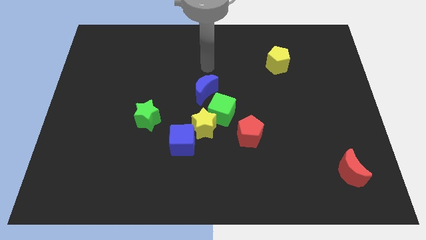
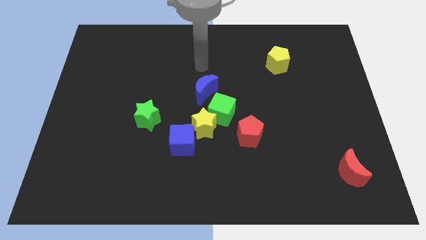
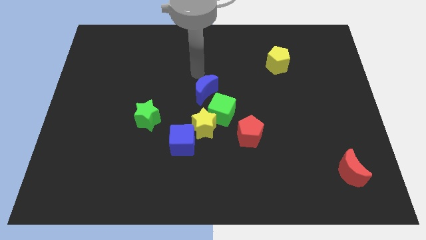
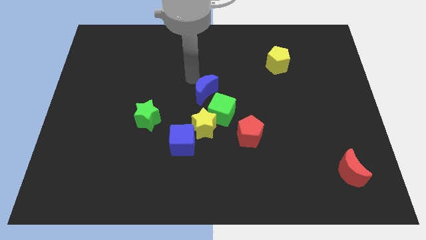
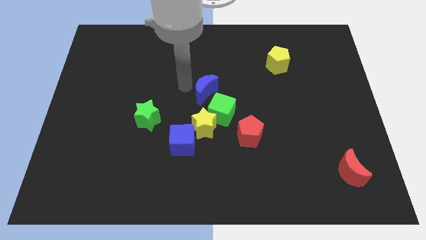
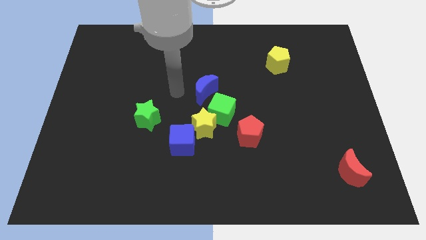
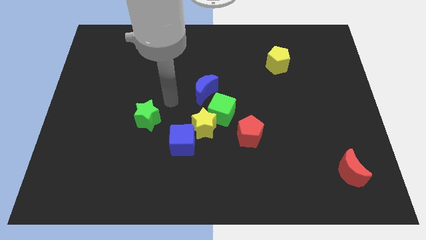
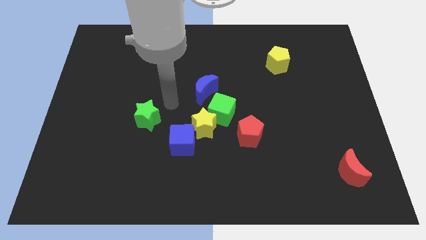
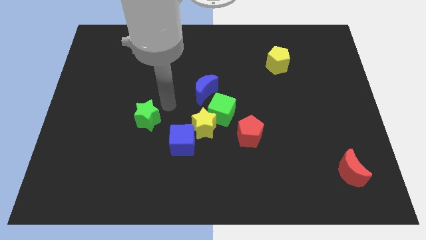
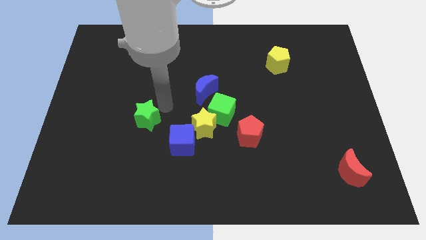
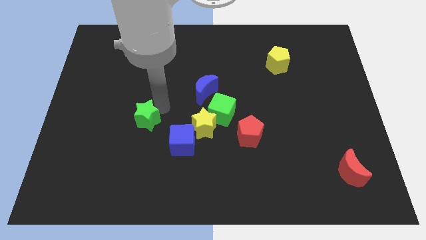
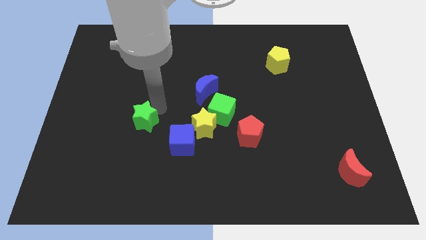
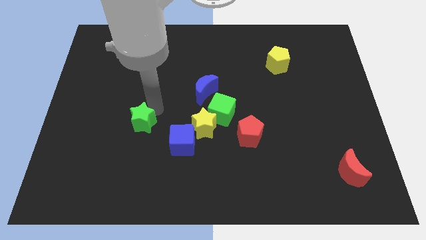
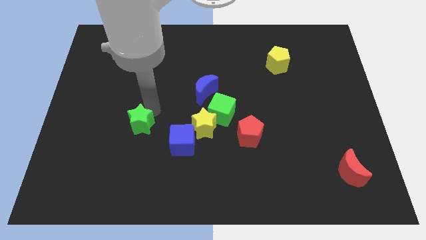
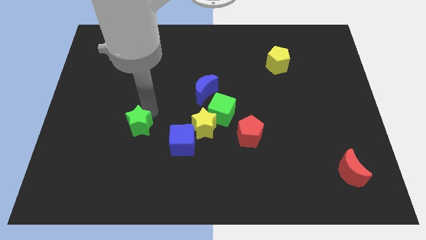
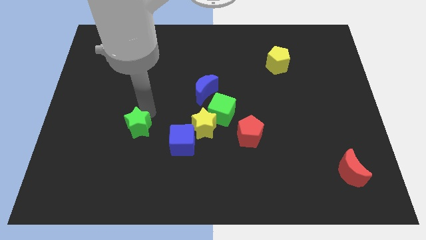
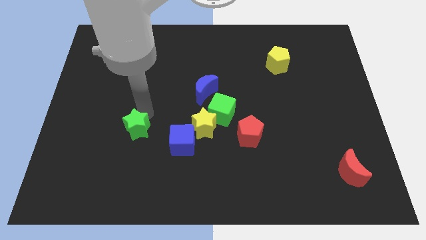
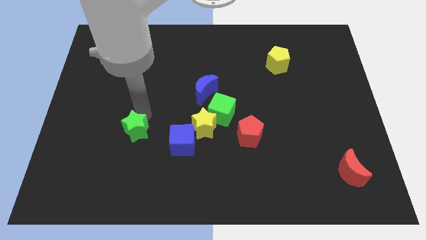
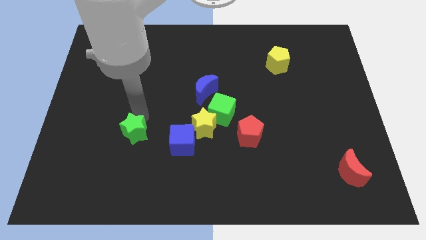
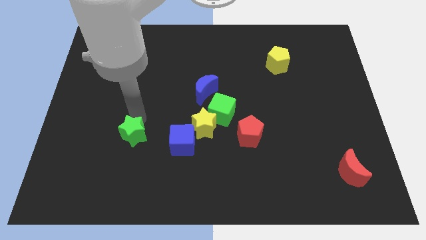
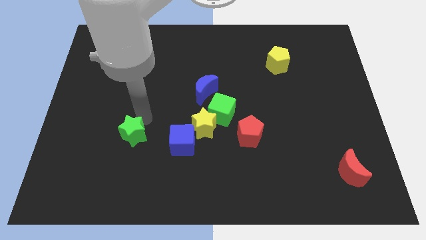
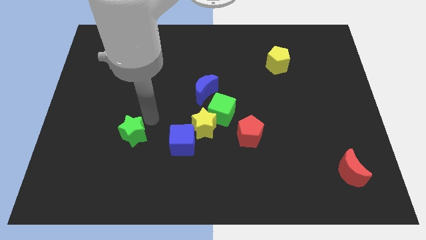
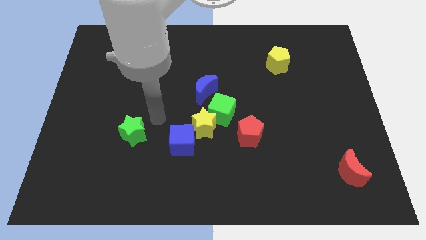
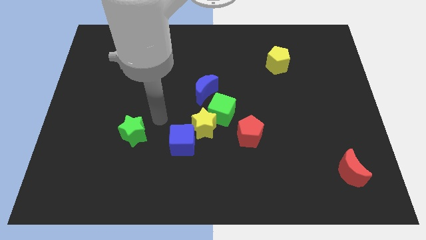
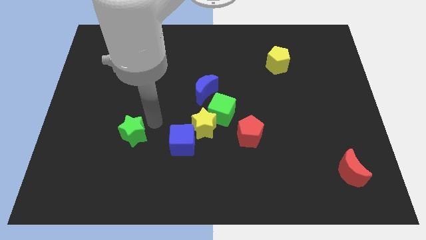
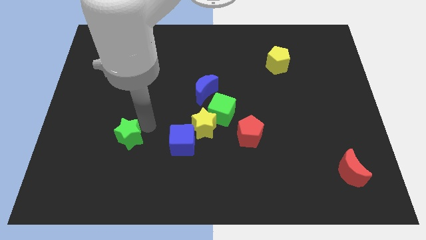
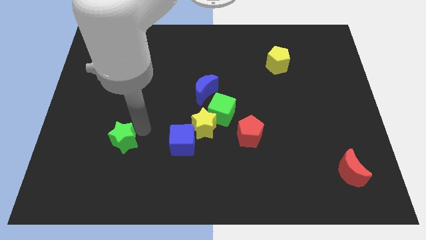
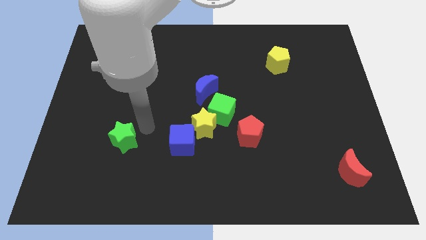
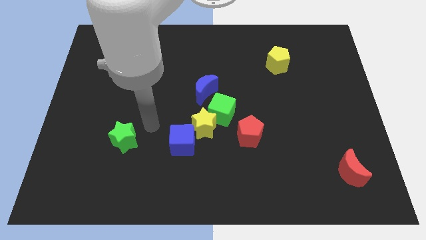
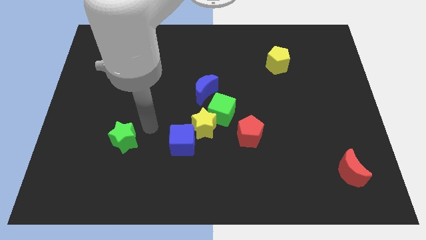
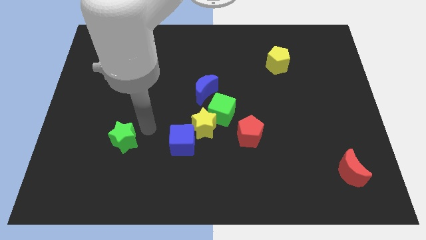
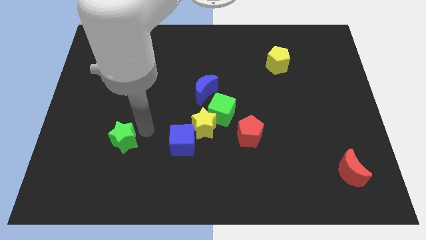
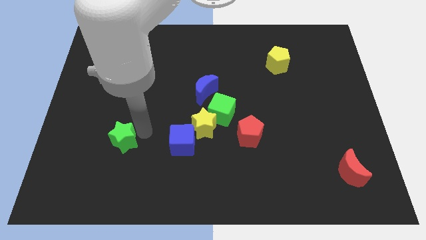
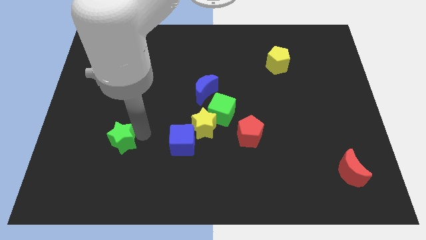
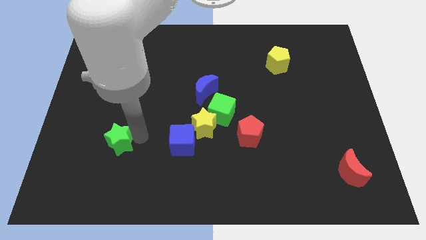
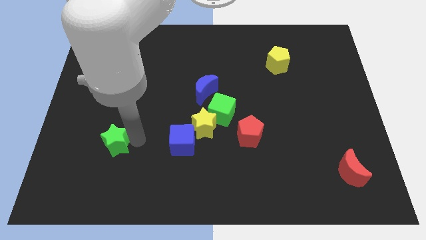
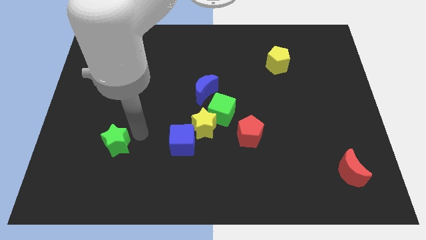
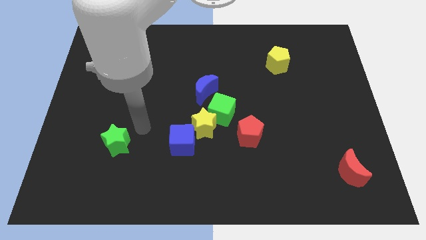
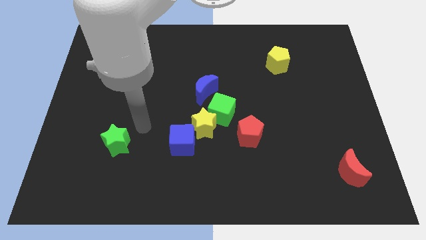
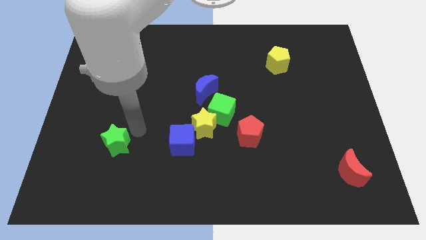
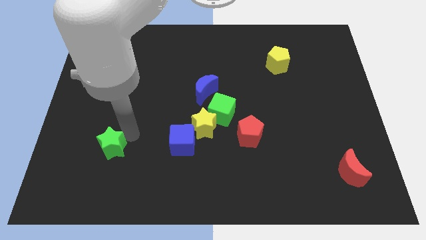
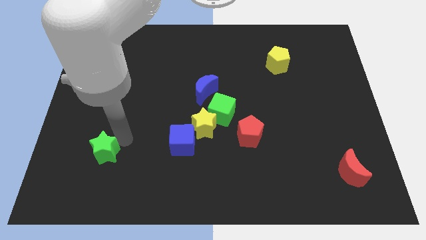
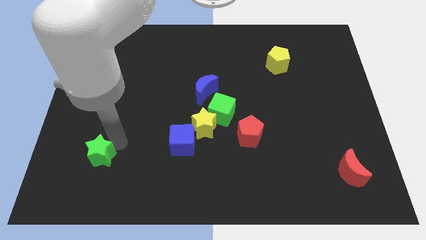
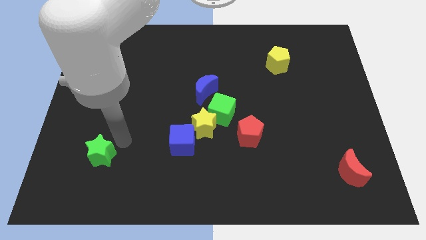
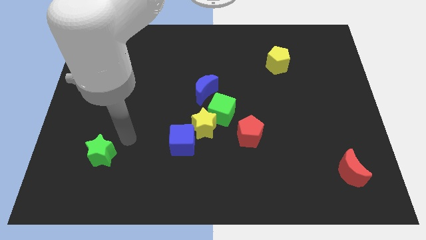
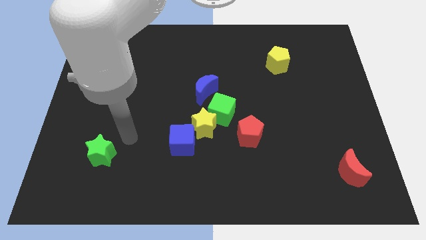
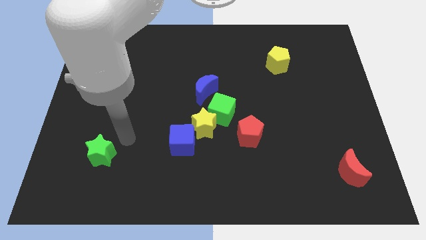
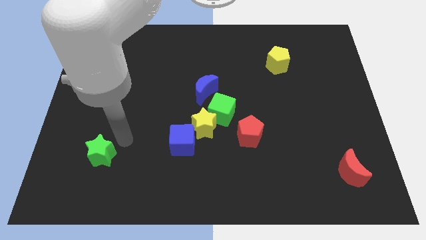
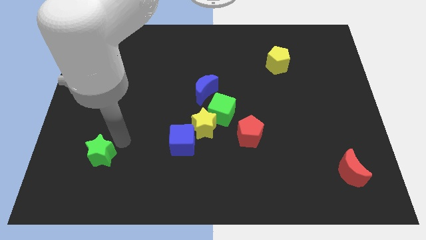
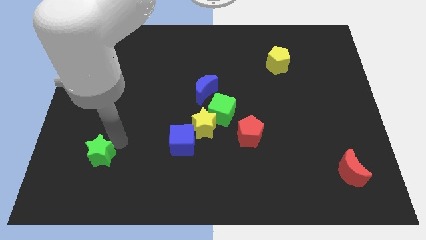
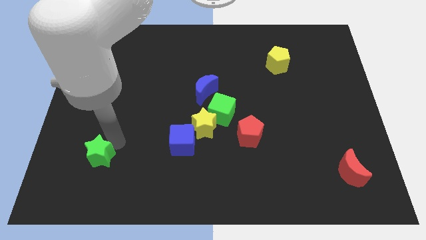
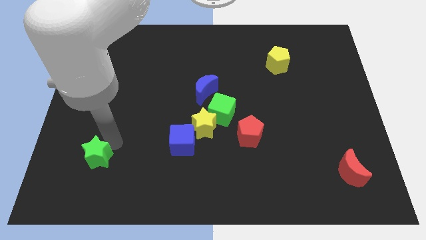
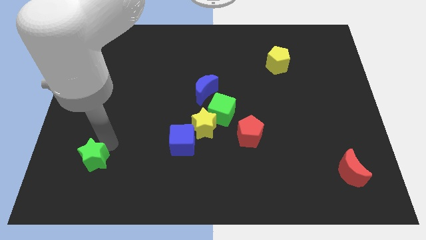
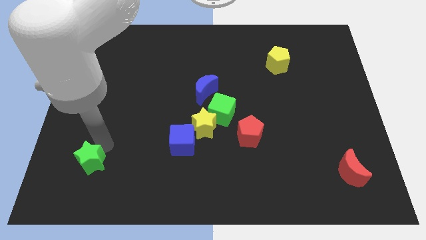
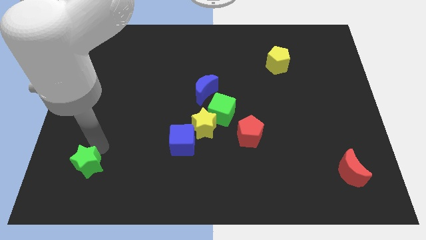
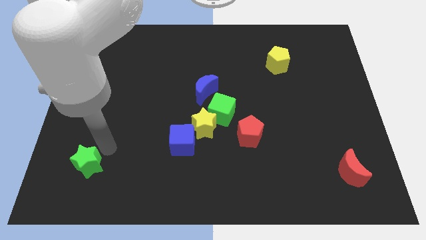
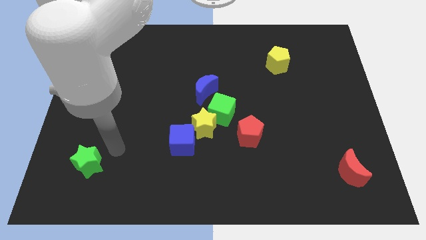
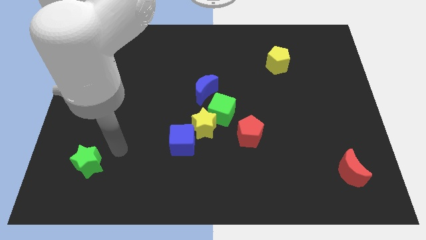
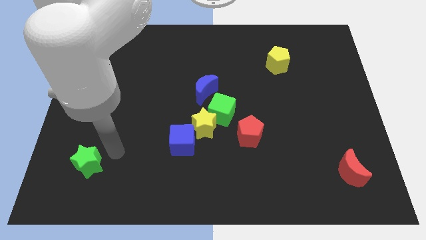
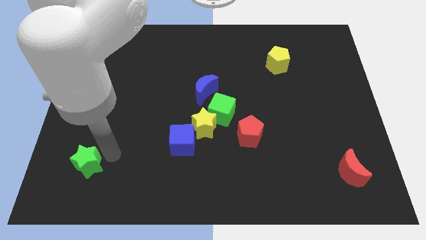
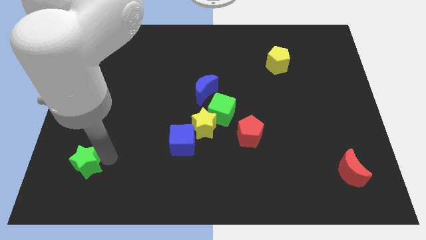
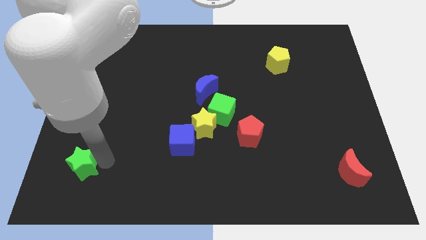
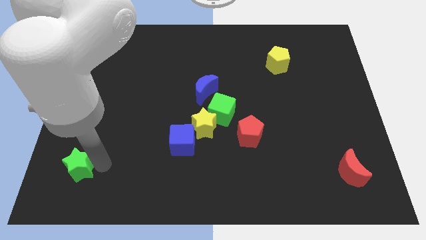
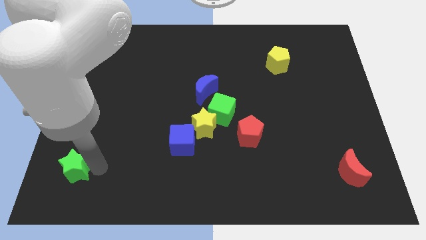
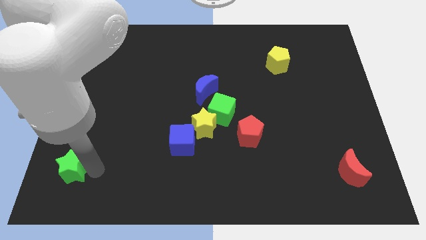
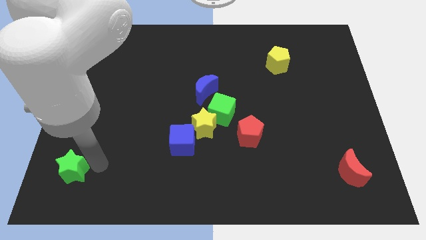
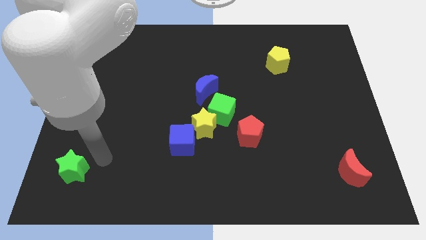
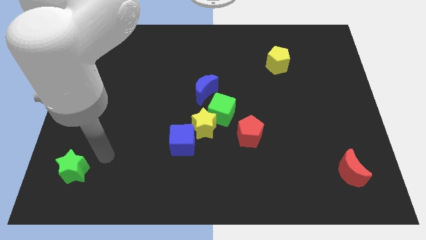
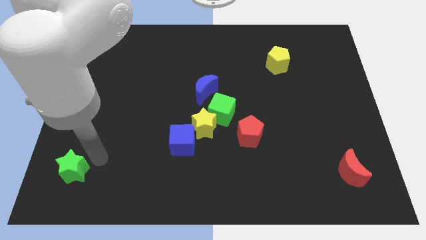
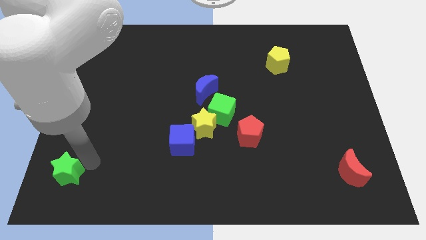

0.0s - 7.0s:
push the green star to the bottom left of the board

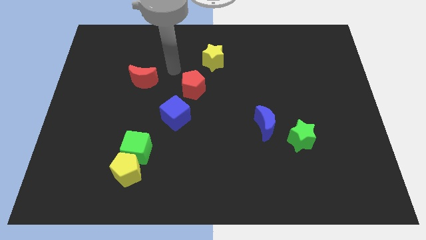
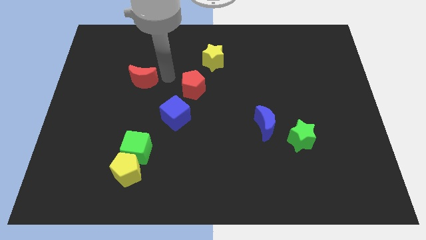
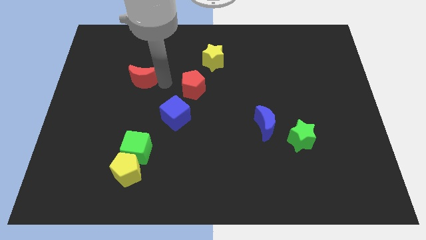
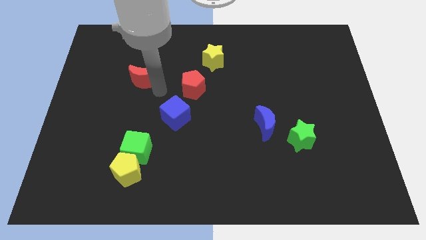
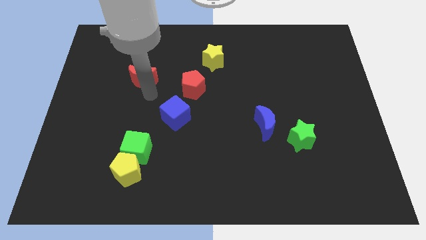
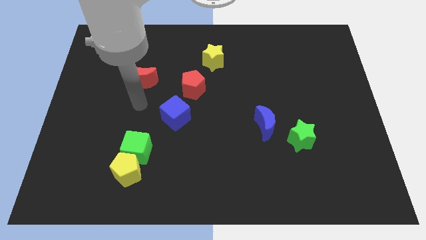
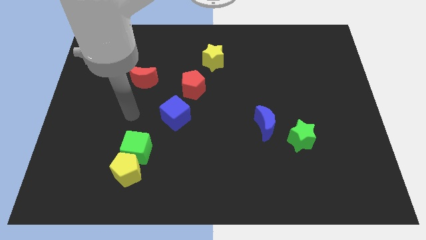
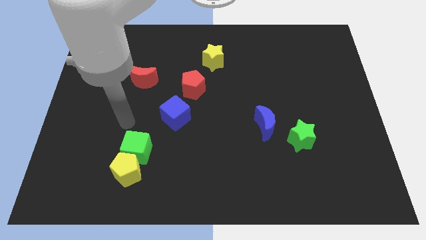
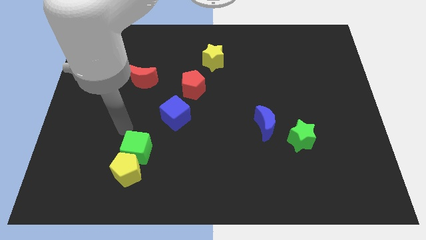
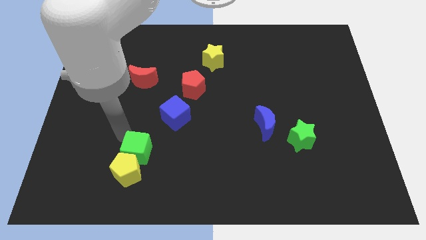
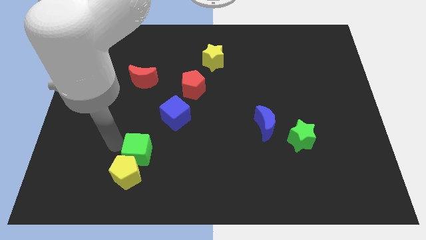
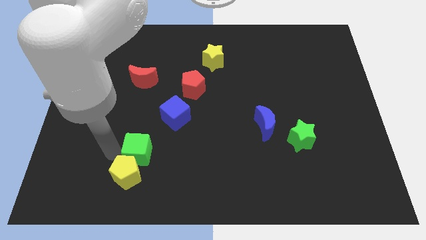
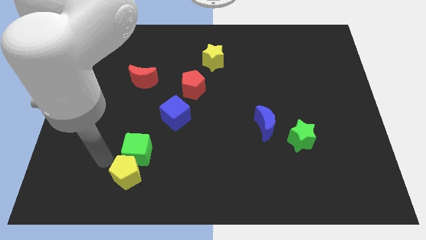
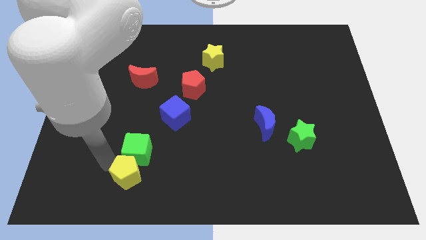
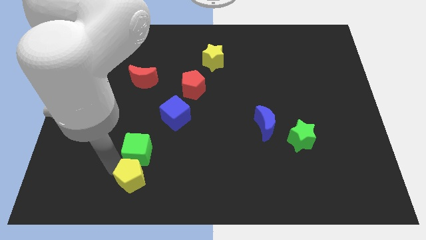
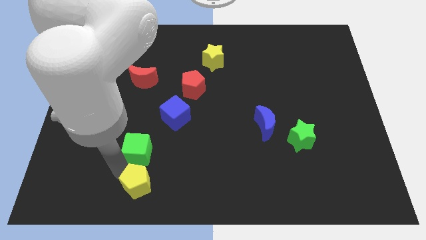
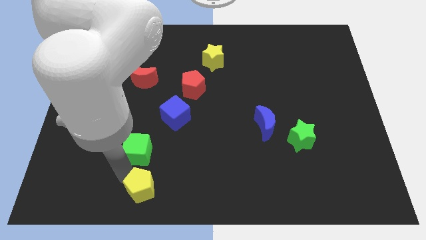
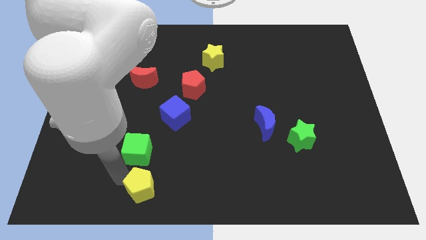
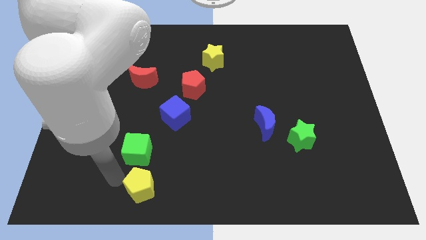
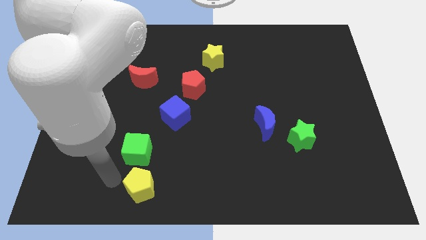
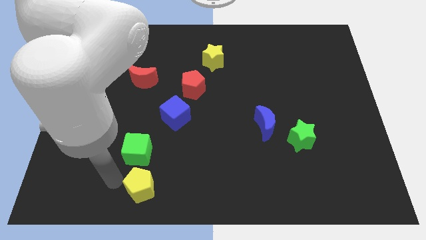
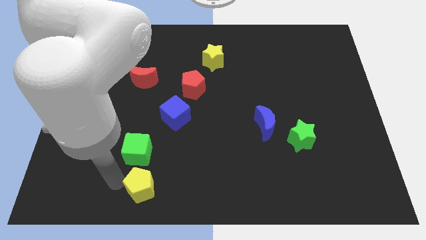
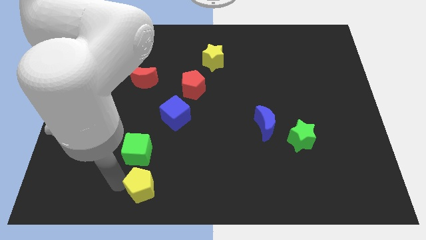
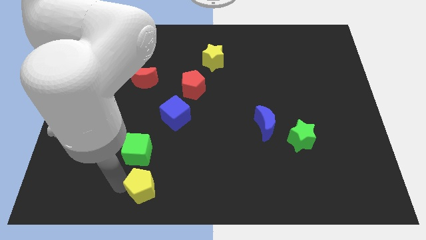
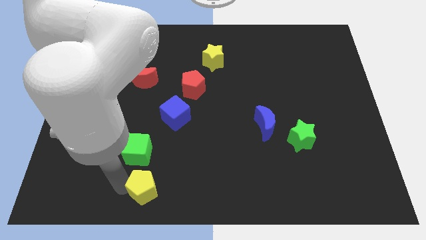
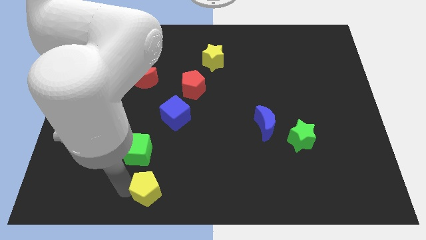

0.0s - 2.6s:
put the yellow pentagon to the bottom
